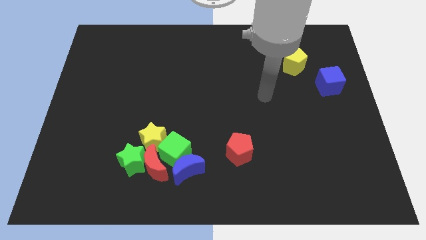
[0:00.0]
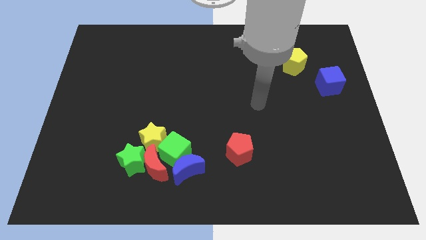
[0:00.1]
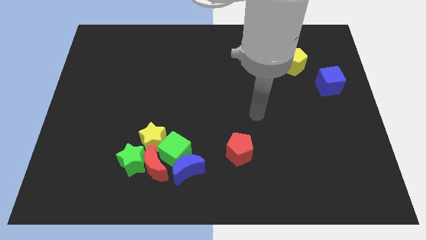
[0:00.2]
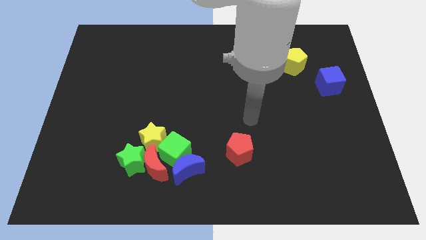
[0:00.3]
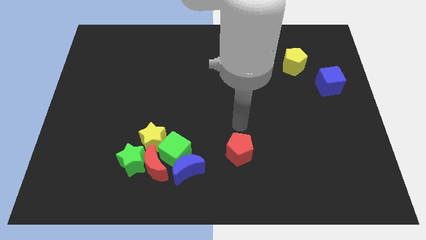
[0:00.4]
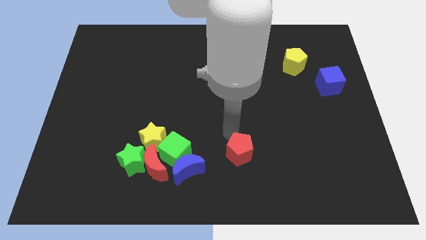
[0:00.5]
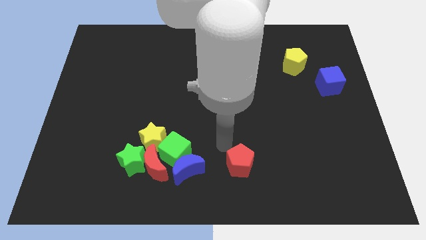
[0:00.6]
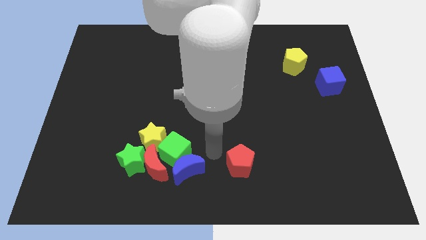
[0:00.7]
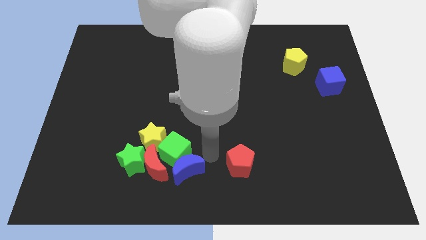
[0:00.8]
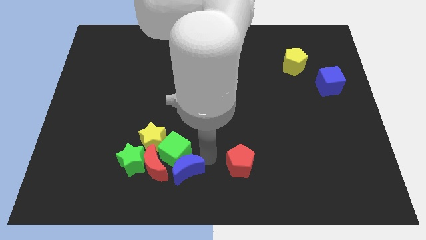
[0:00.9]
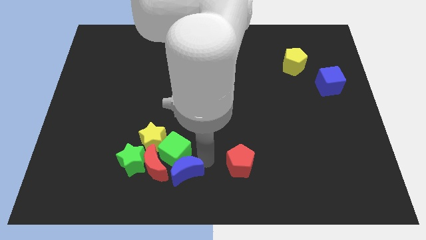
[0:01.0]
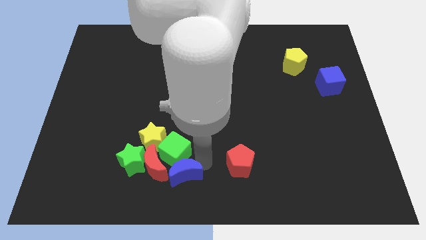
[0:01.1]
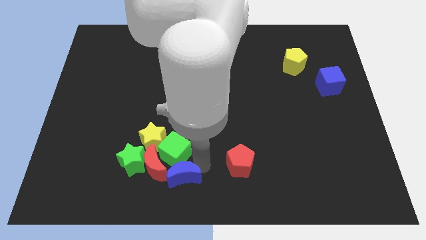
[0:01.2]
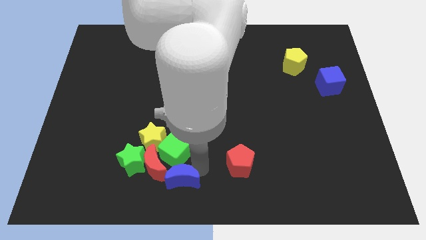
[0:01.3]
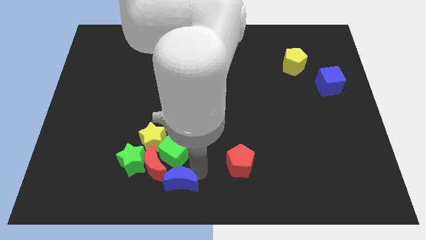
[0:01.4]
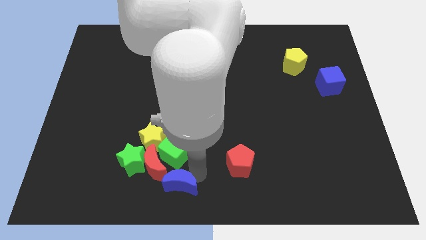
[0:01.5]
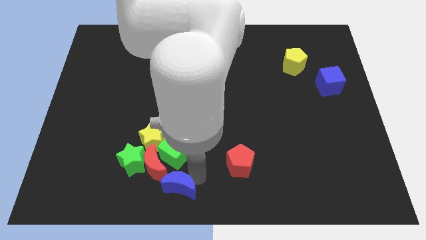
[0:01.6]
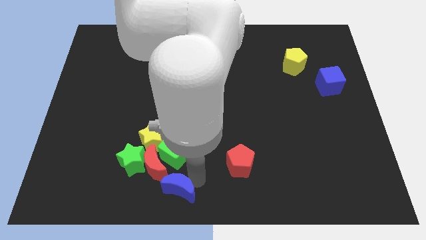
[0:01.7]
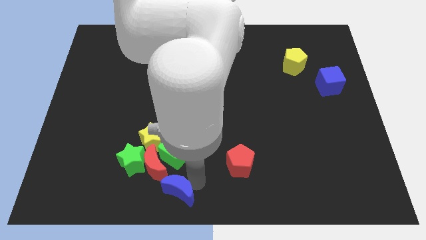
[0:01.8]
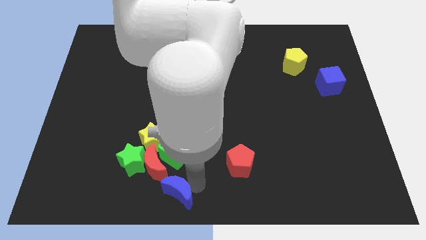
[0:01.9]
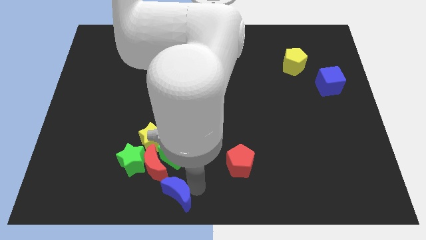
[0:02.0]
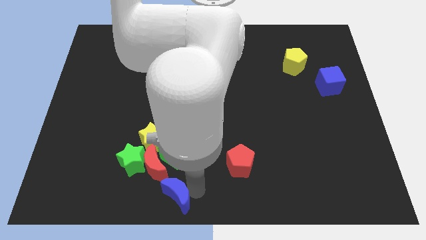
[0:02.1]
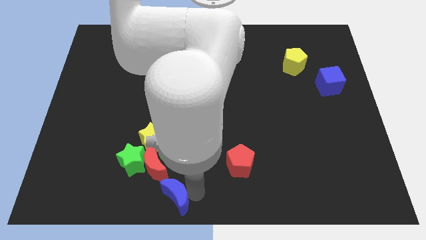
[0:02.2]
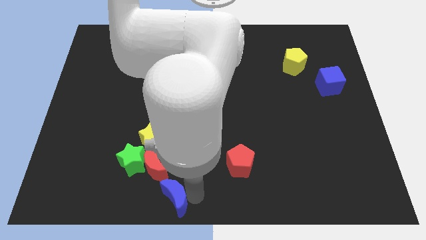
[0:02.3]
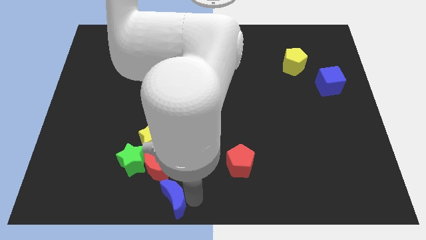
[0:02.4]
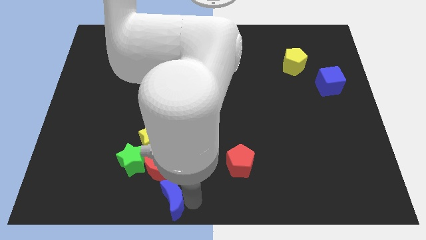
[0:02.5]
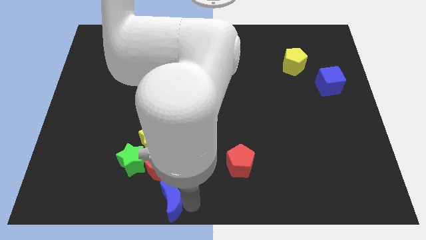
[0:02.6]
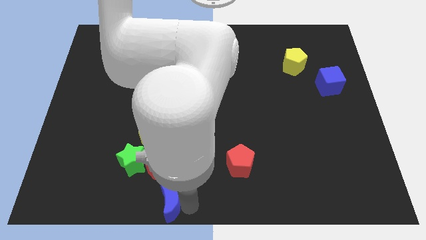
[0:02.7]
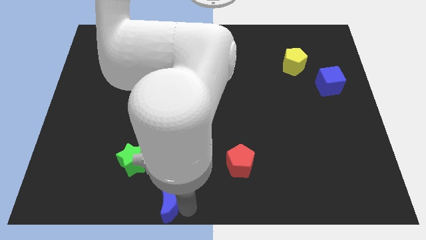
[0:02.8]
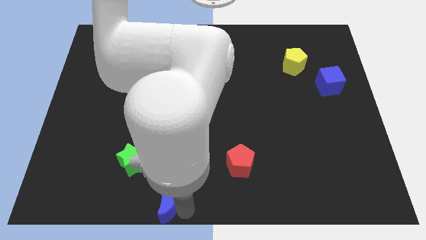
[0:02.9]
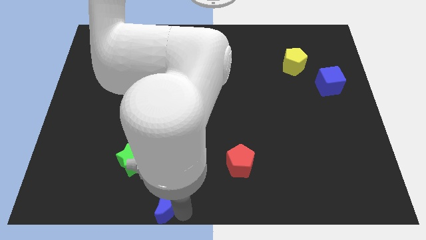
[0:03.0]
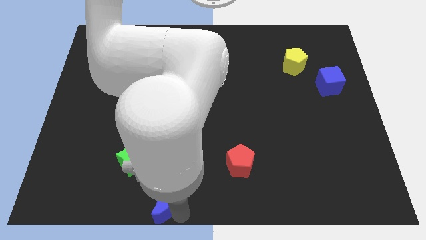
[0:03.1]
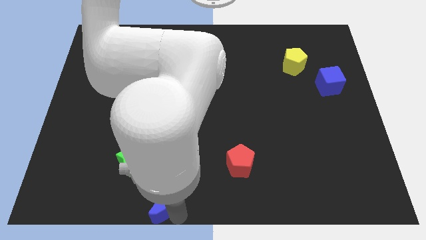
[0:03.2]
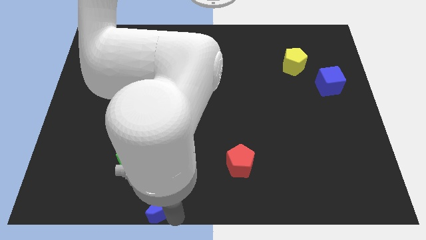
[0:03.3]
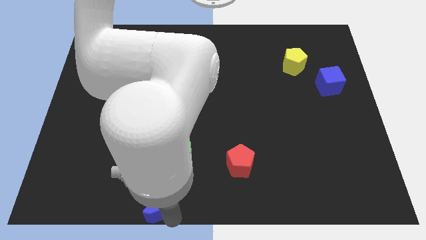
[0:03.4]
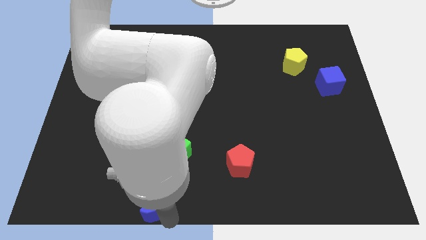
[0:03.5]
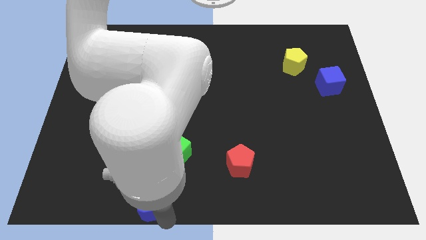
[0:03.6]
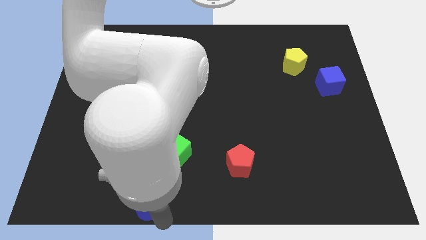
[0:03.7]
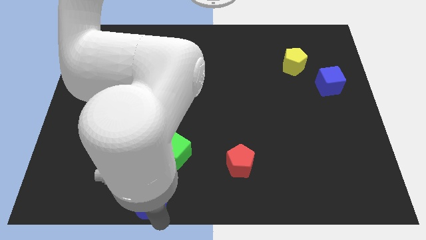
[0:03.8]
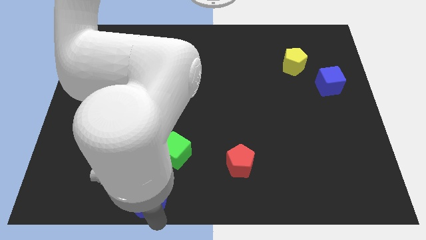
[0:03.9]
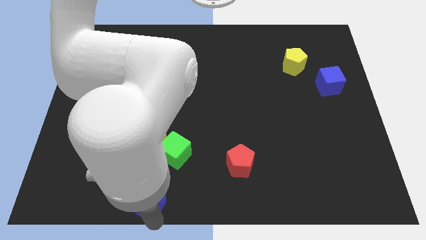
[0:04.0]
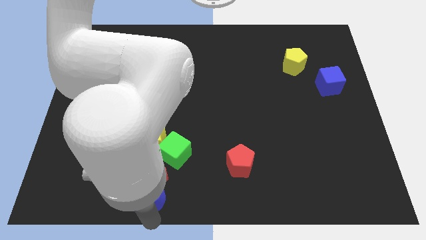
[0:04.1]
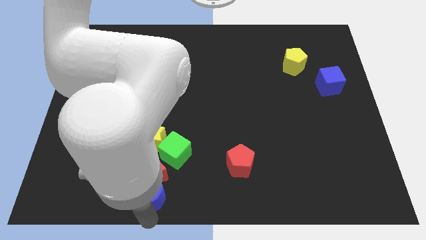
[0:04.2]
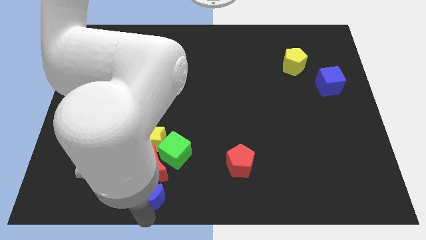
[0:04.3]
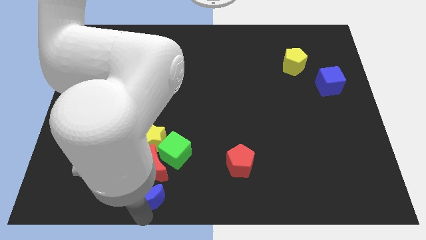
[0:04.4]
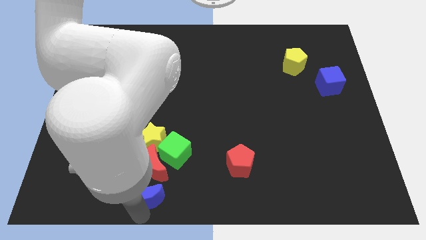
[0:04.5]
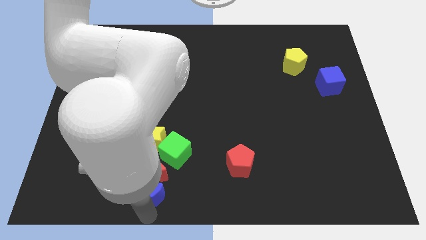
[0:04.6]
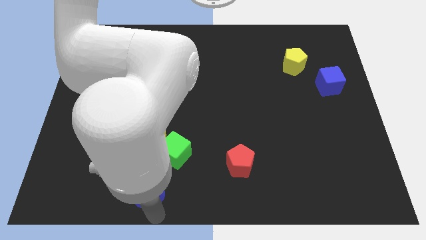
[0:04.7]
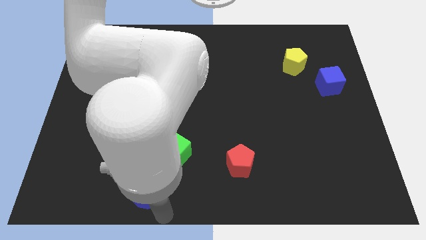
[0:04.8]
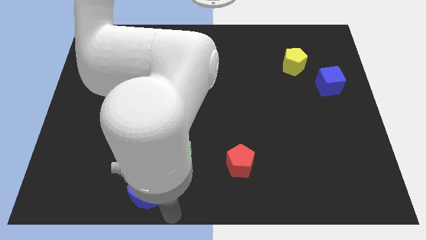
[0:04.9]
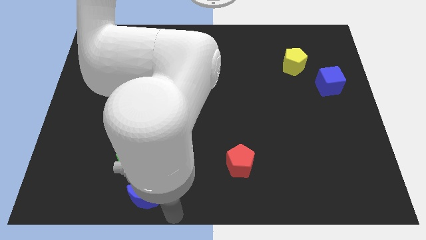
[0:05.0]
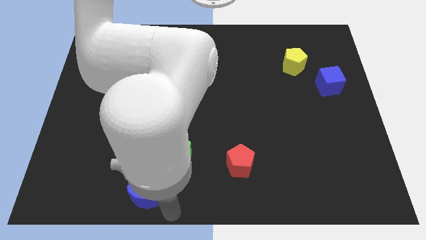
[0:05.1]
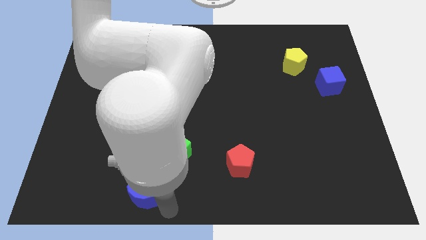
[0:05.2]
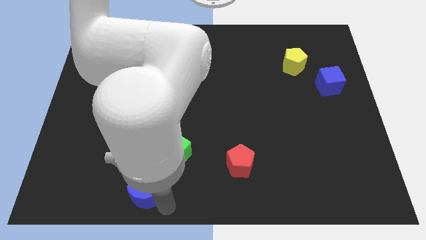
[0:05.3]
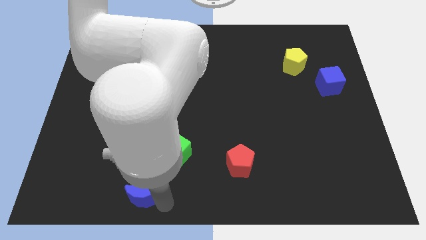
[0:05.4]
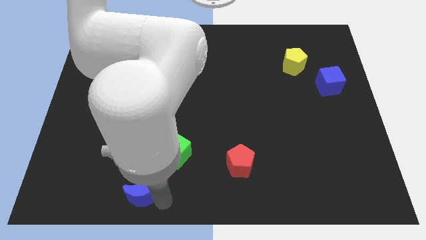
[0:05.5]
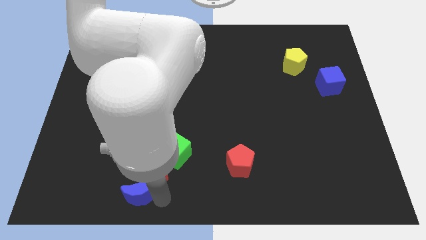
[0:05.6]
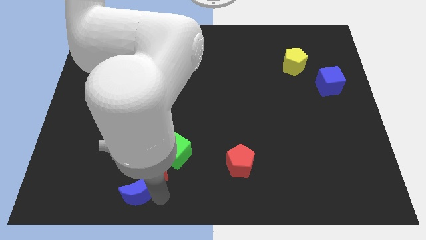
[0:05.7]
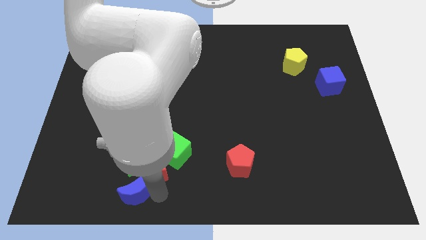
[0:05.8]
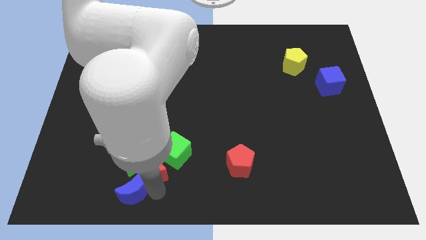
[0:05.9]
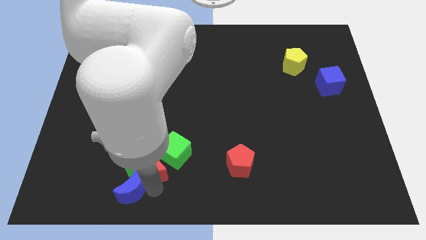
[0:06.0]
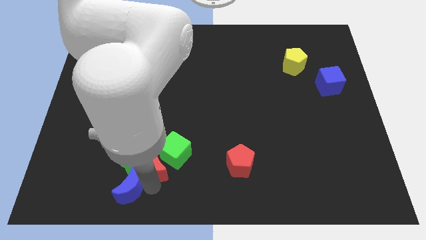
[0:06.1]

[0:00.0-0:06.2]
move the blue moon to the bottom left of the green star

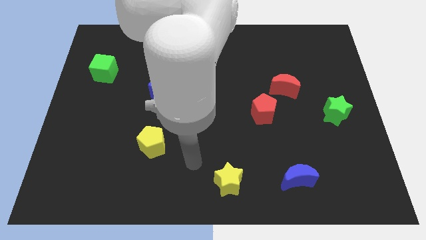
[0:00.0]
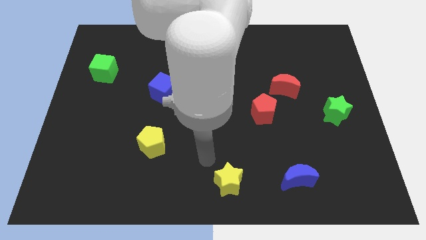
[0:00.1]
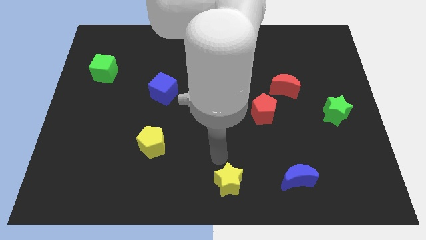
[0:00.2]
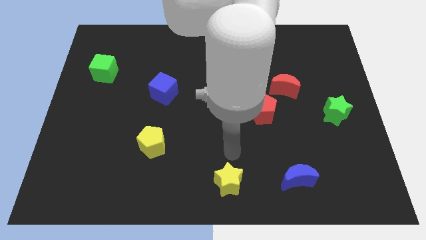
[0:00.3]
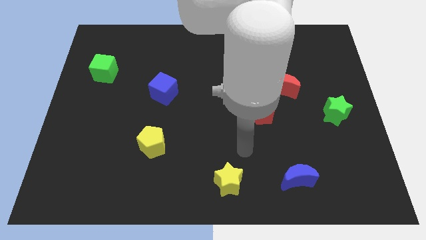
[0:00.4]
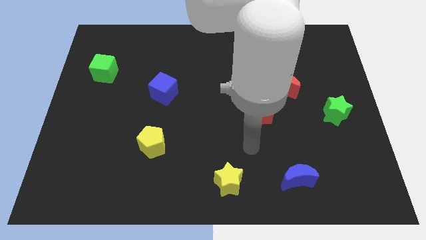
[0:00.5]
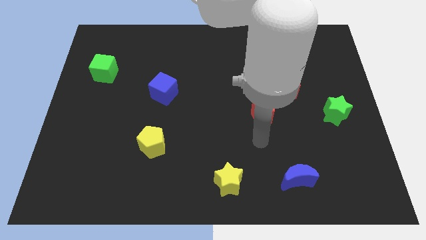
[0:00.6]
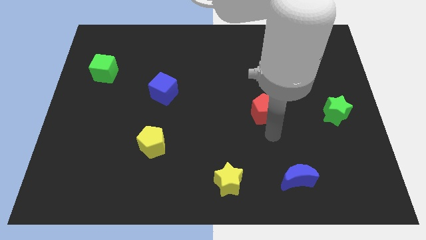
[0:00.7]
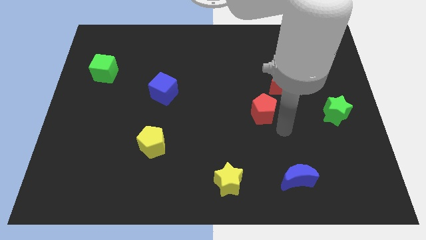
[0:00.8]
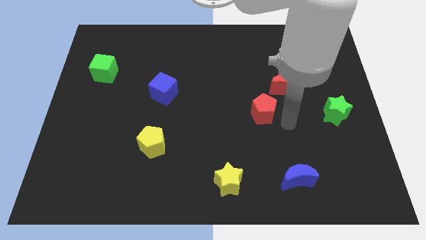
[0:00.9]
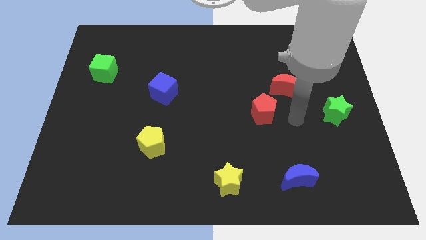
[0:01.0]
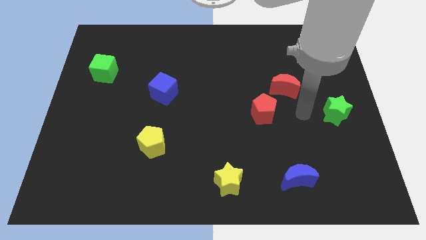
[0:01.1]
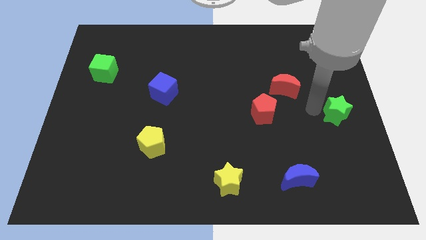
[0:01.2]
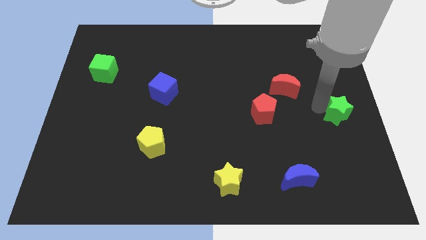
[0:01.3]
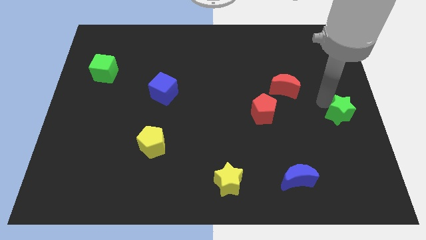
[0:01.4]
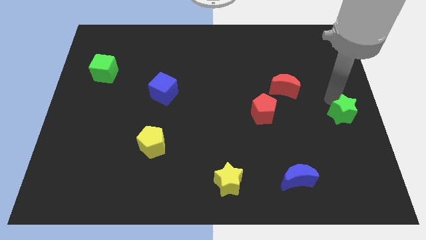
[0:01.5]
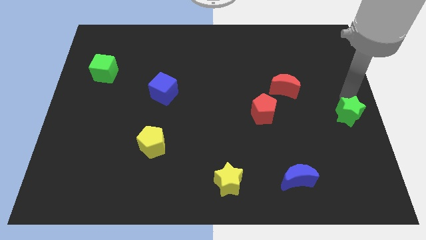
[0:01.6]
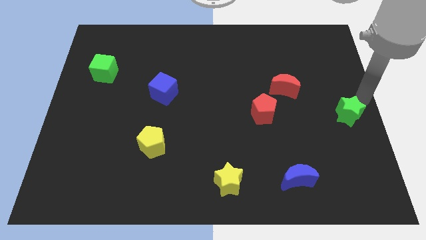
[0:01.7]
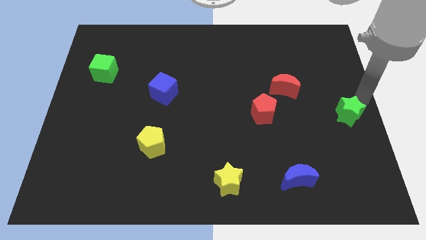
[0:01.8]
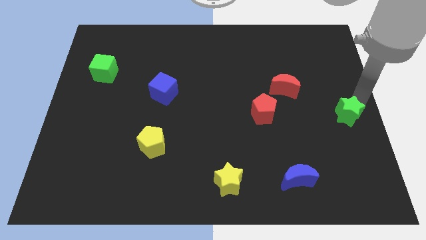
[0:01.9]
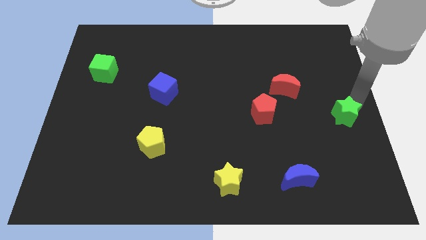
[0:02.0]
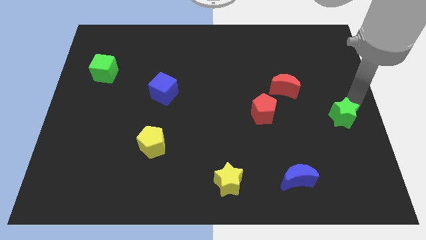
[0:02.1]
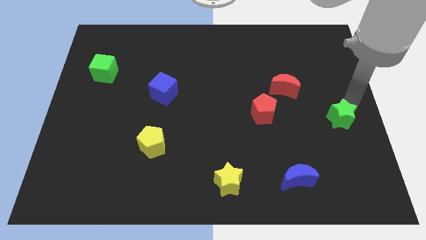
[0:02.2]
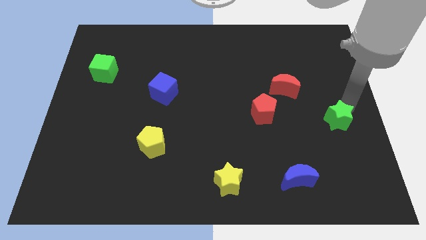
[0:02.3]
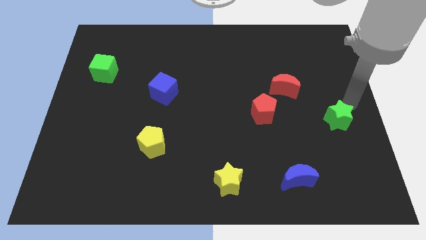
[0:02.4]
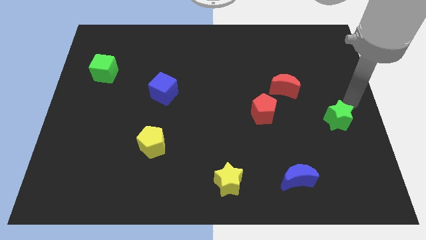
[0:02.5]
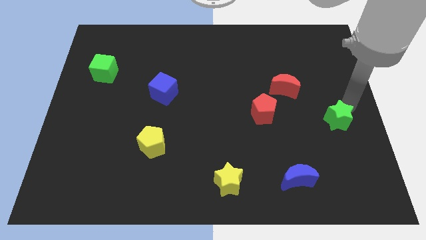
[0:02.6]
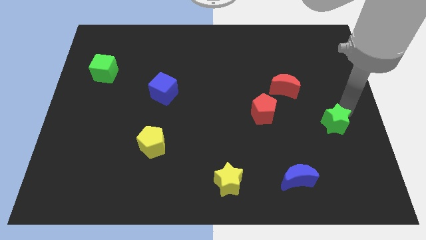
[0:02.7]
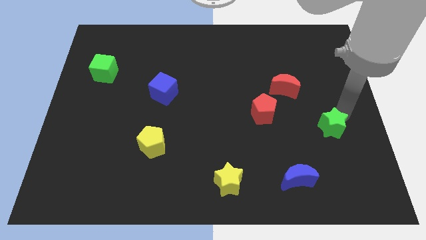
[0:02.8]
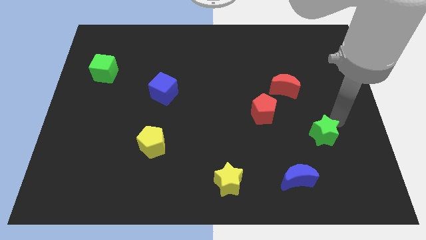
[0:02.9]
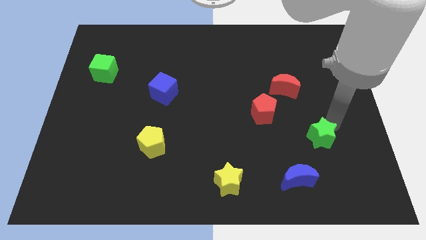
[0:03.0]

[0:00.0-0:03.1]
push the green star to the top right side of the blue moon
